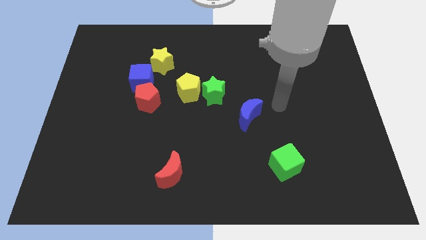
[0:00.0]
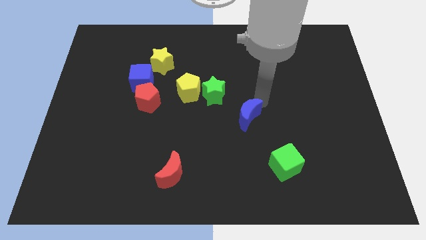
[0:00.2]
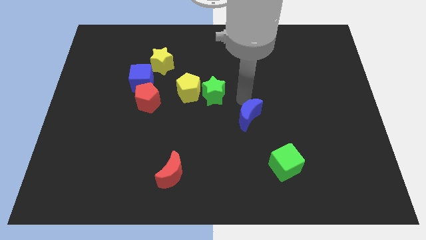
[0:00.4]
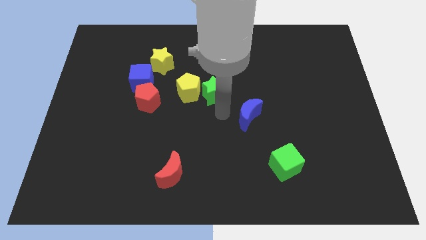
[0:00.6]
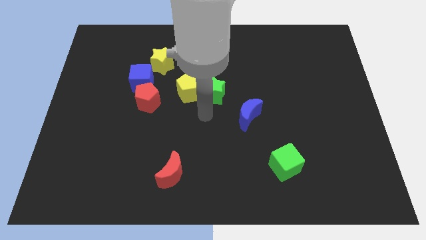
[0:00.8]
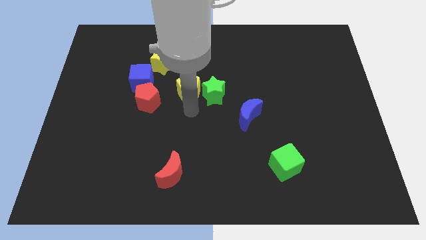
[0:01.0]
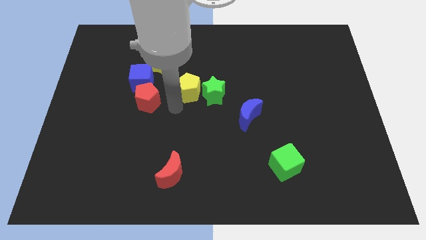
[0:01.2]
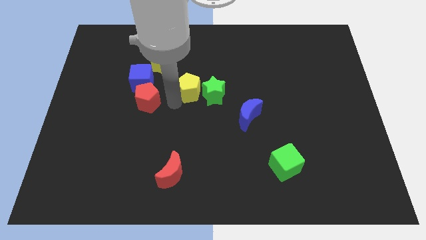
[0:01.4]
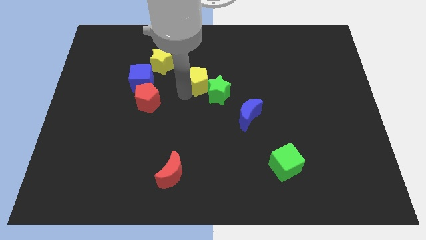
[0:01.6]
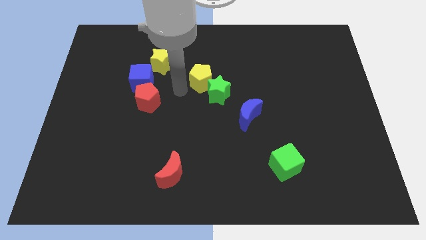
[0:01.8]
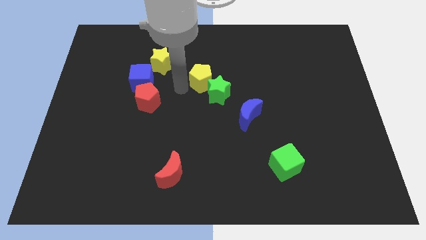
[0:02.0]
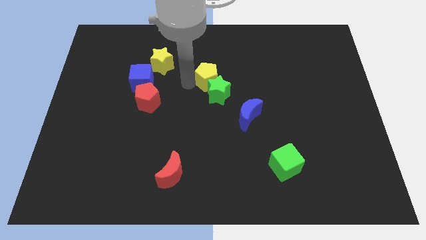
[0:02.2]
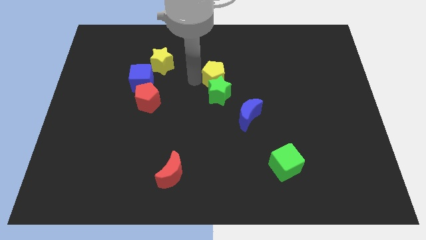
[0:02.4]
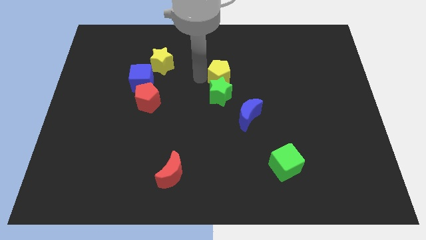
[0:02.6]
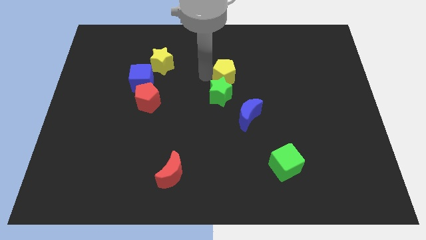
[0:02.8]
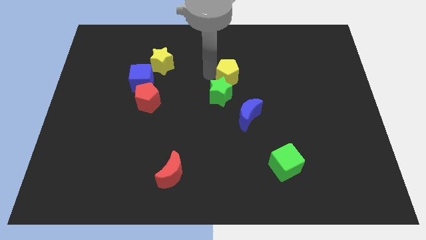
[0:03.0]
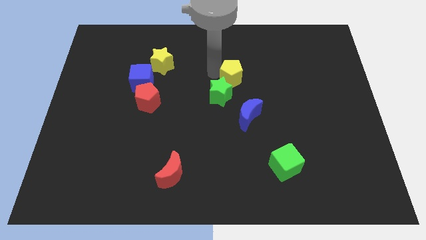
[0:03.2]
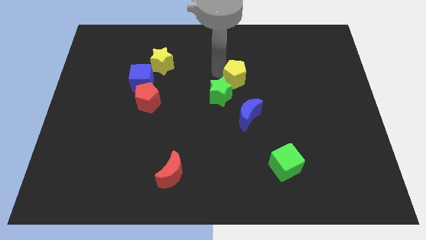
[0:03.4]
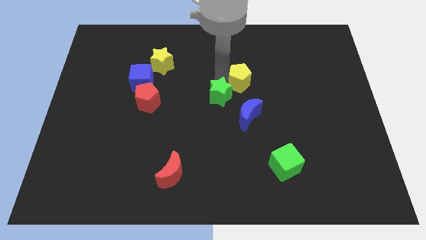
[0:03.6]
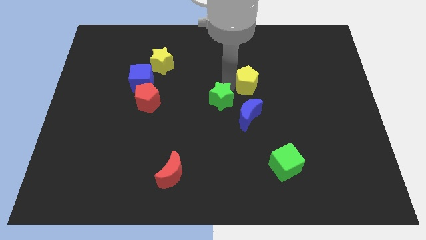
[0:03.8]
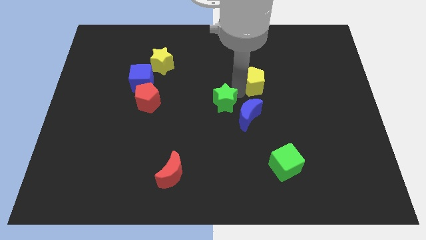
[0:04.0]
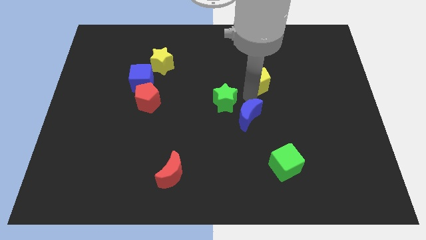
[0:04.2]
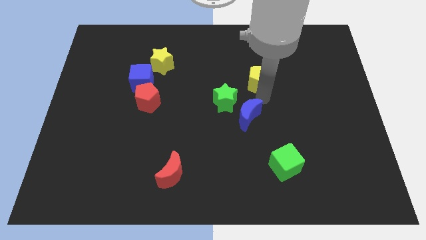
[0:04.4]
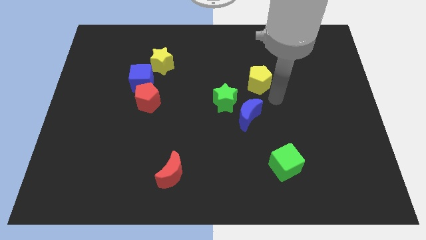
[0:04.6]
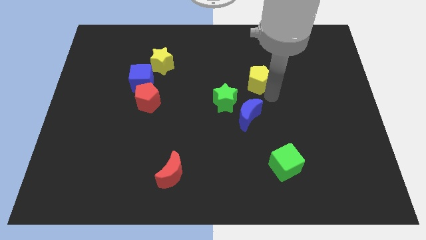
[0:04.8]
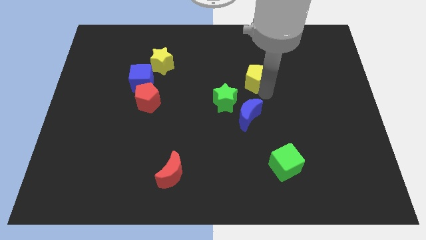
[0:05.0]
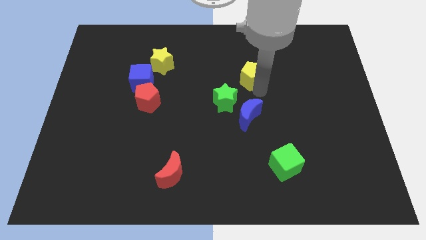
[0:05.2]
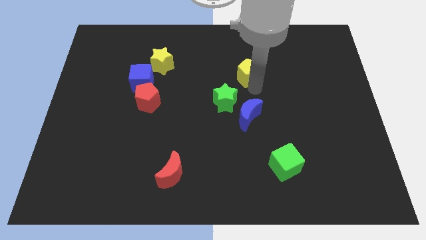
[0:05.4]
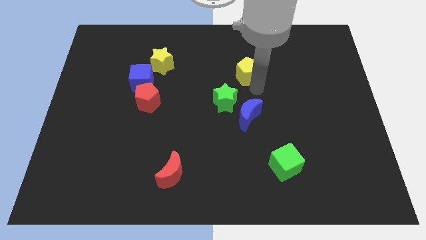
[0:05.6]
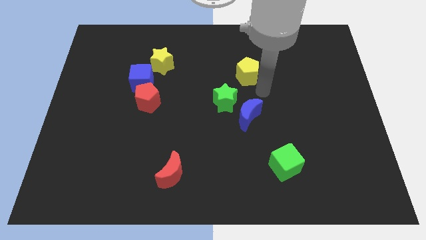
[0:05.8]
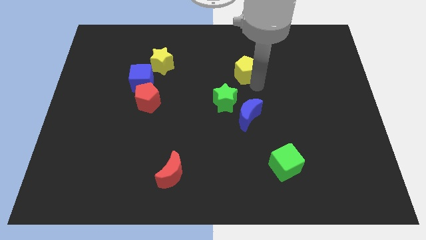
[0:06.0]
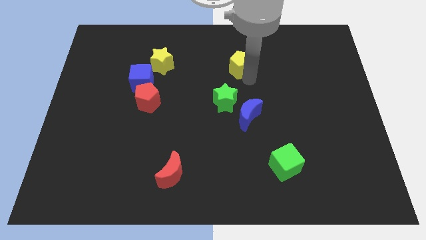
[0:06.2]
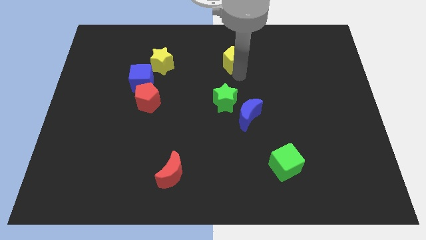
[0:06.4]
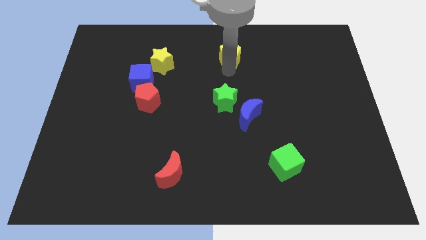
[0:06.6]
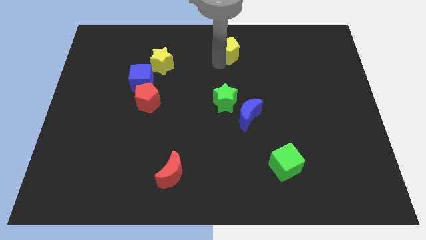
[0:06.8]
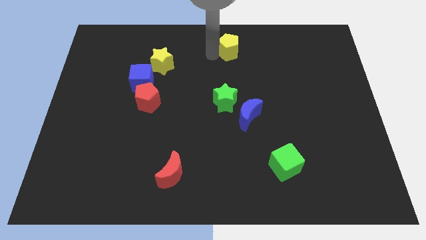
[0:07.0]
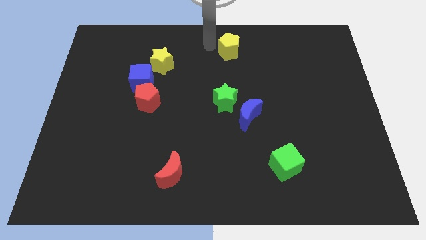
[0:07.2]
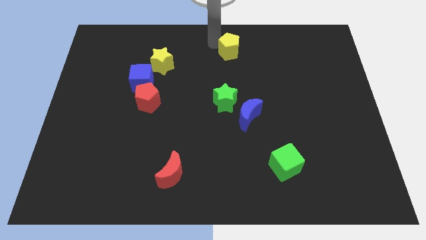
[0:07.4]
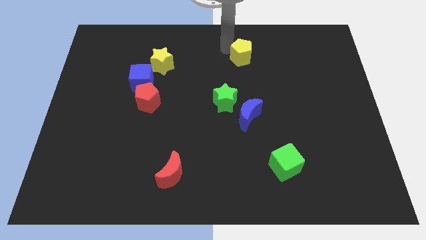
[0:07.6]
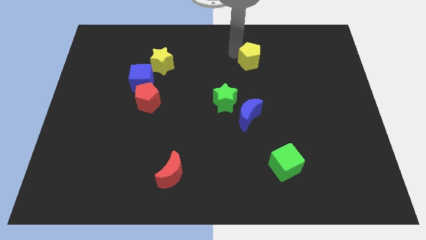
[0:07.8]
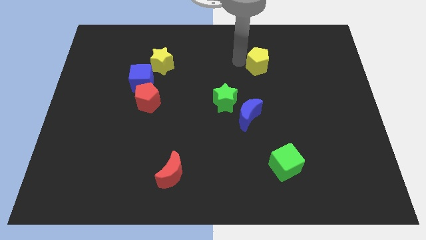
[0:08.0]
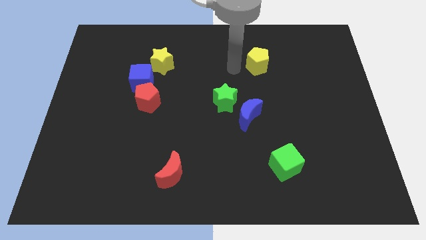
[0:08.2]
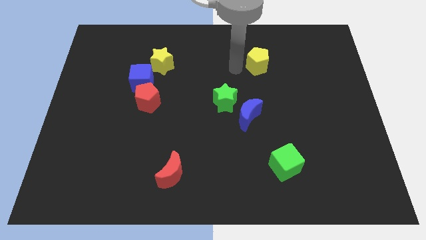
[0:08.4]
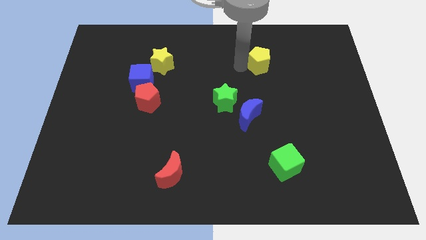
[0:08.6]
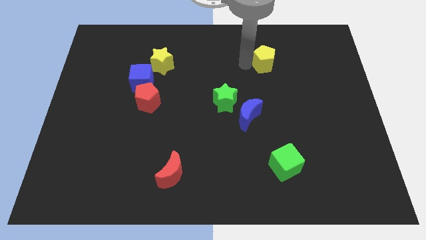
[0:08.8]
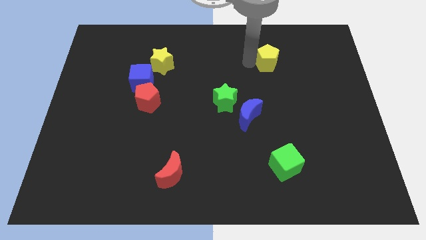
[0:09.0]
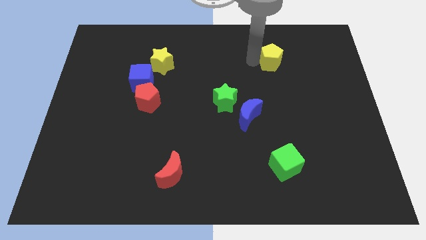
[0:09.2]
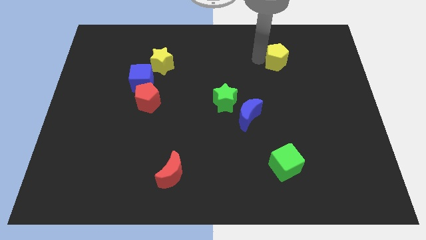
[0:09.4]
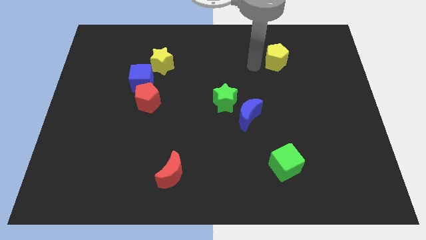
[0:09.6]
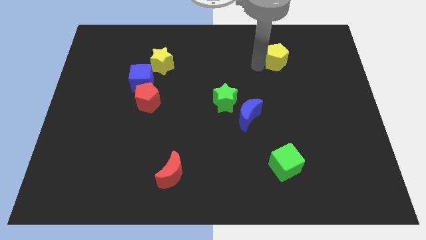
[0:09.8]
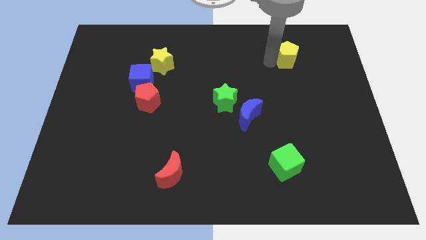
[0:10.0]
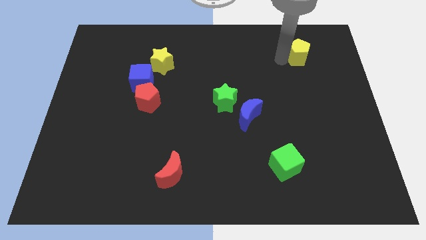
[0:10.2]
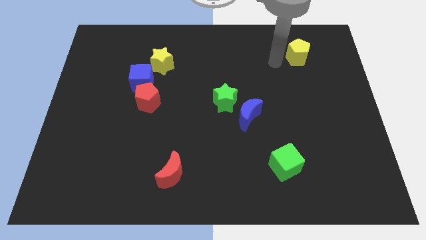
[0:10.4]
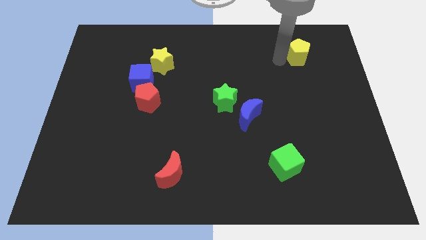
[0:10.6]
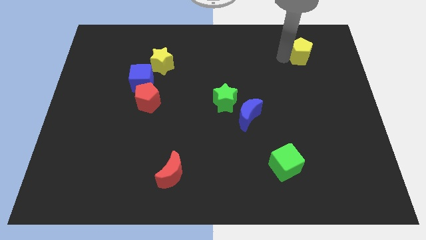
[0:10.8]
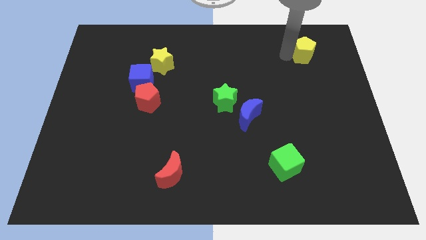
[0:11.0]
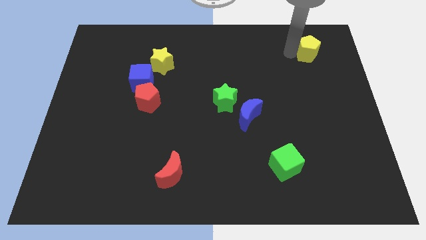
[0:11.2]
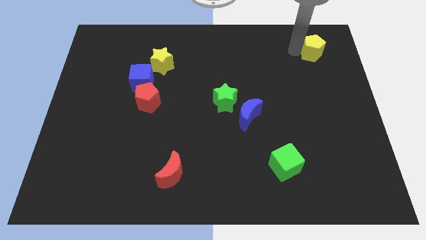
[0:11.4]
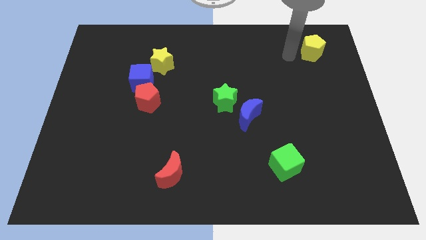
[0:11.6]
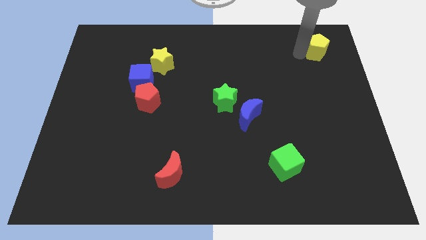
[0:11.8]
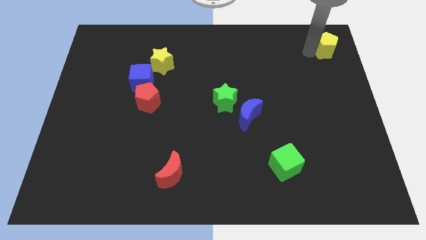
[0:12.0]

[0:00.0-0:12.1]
push the yellow pentagon to the upper right corner

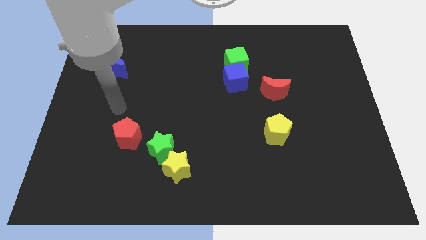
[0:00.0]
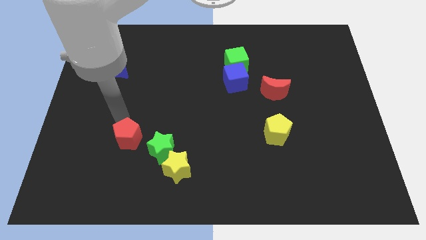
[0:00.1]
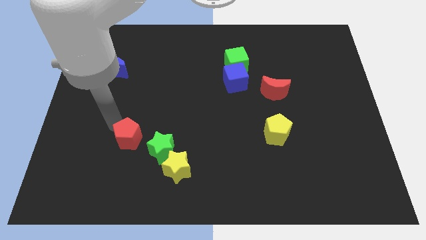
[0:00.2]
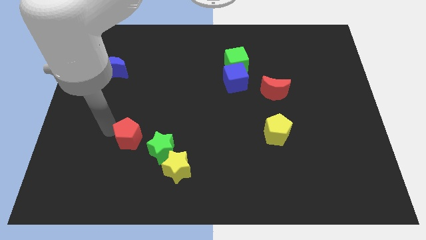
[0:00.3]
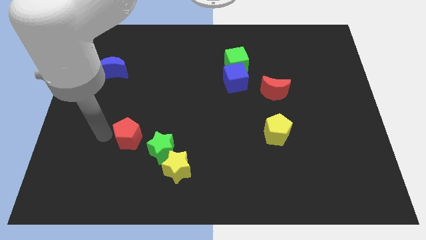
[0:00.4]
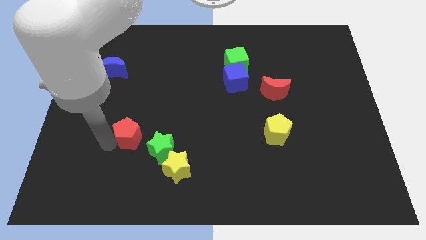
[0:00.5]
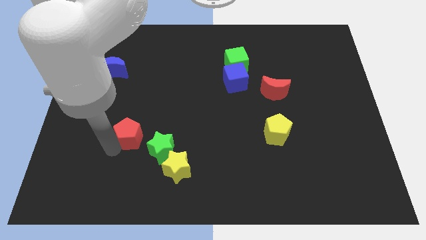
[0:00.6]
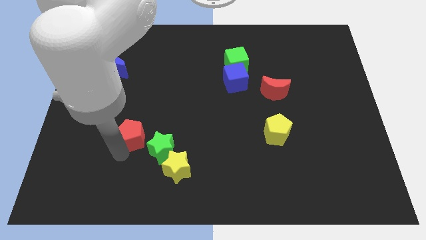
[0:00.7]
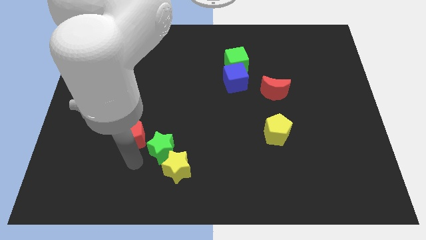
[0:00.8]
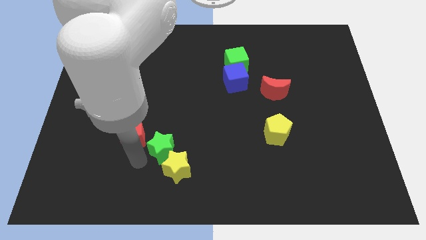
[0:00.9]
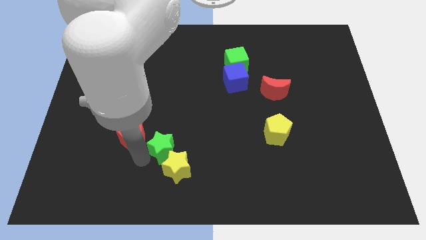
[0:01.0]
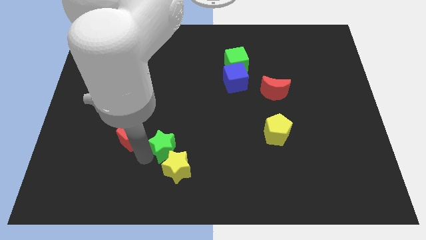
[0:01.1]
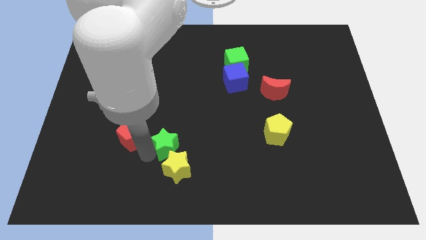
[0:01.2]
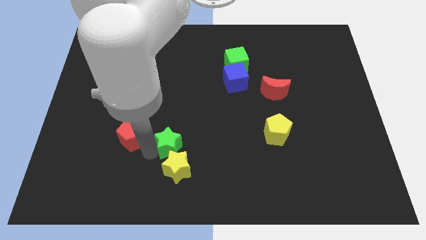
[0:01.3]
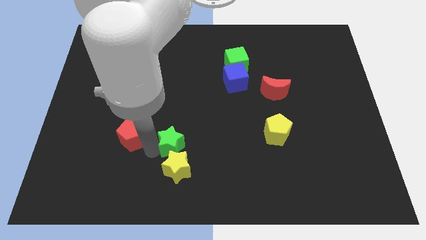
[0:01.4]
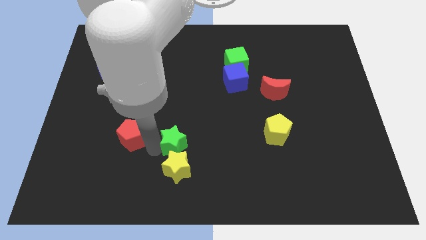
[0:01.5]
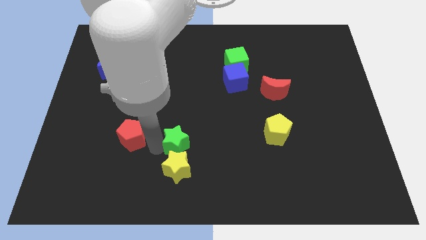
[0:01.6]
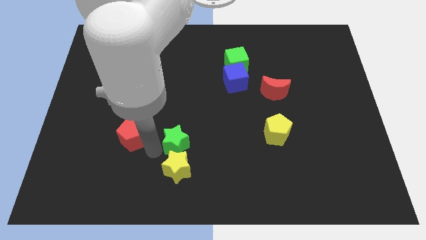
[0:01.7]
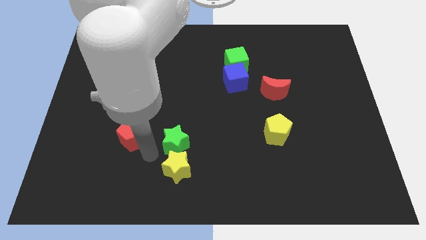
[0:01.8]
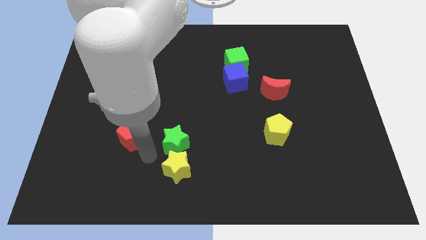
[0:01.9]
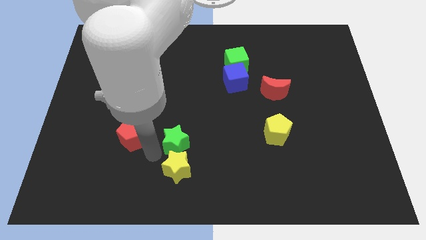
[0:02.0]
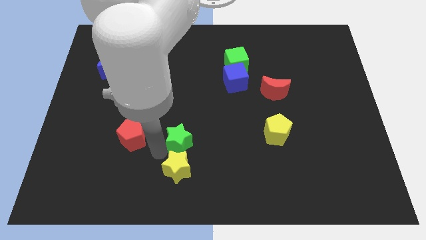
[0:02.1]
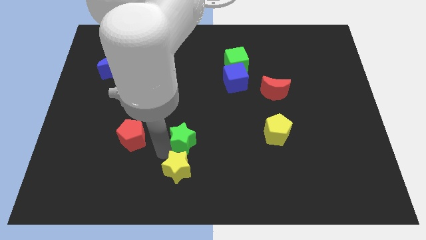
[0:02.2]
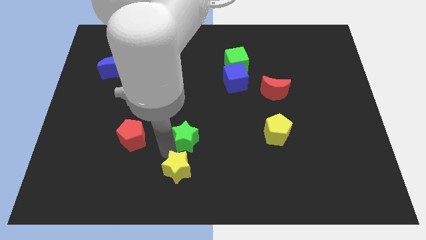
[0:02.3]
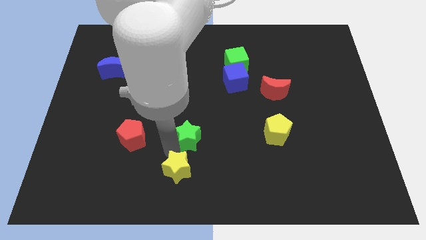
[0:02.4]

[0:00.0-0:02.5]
push the green star to the middle of the board
